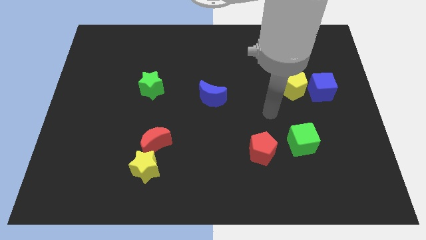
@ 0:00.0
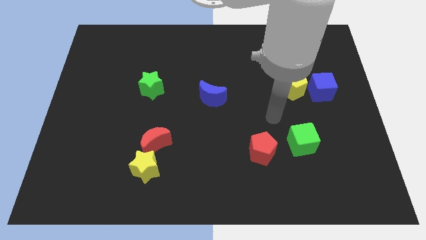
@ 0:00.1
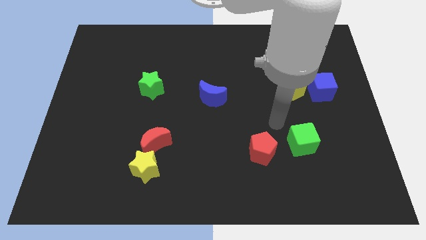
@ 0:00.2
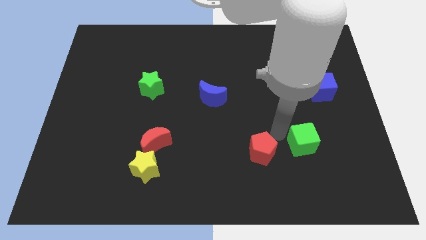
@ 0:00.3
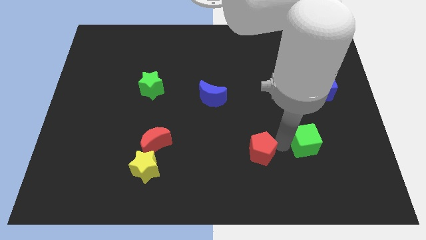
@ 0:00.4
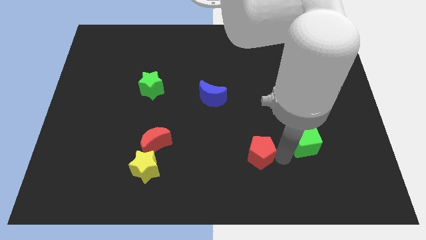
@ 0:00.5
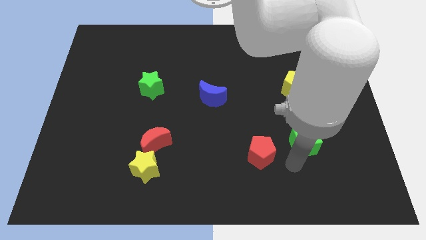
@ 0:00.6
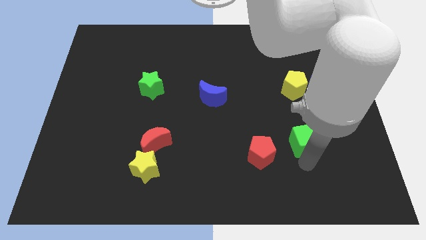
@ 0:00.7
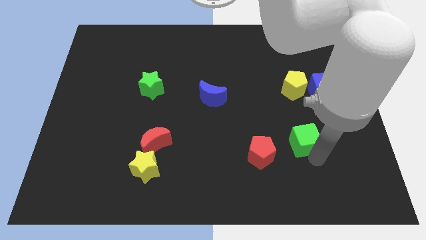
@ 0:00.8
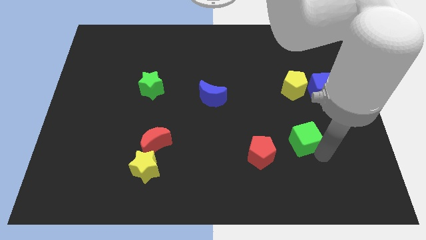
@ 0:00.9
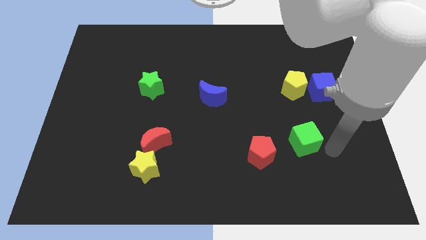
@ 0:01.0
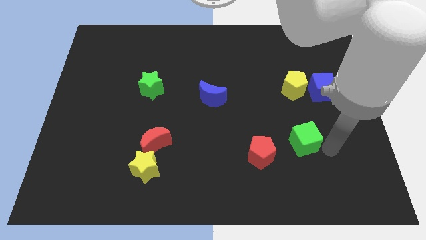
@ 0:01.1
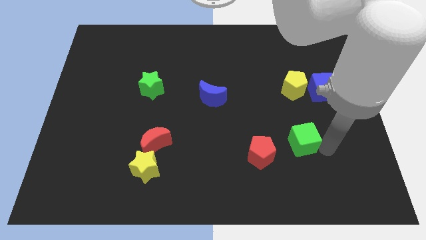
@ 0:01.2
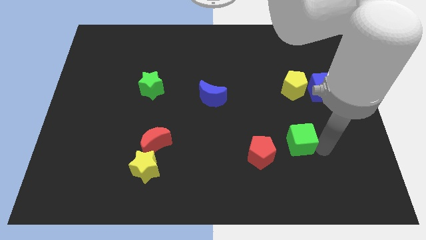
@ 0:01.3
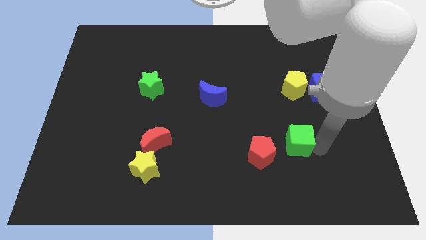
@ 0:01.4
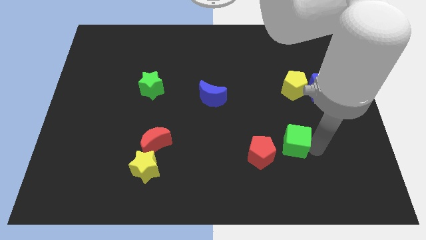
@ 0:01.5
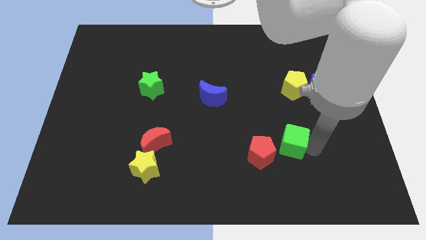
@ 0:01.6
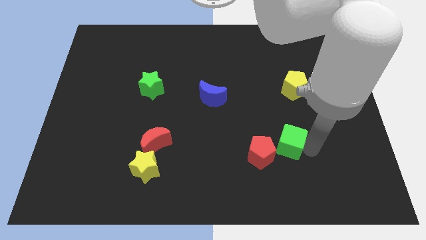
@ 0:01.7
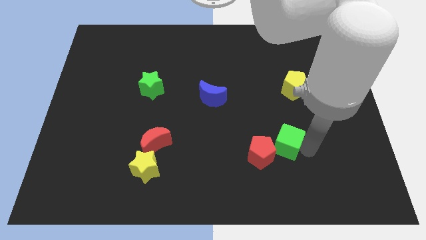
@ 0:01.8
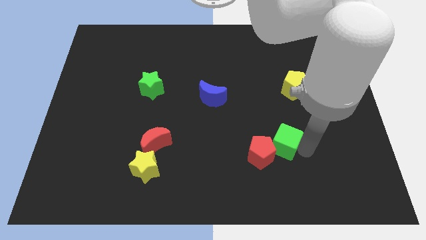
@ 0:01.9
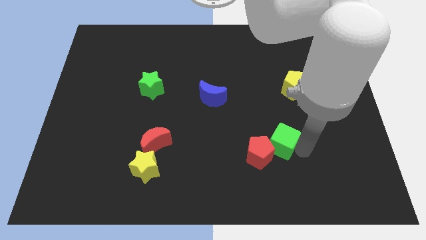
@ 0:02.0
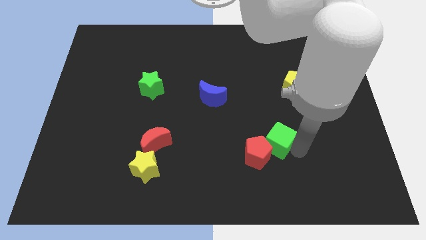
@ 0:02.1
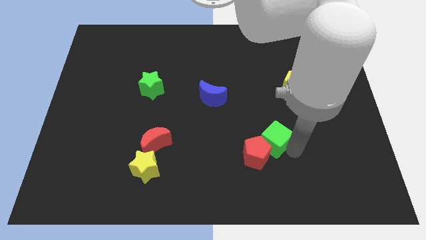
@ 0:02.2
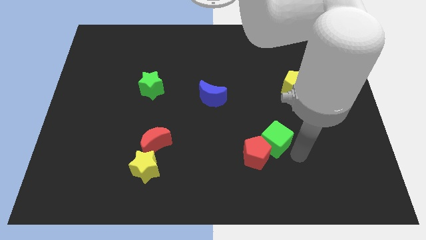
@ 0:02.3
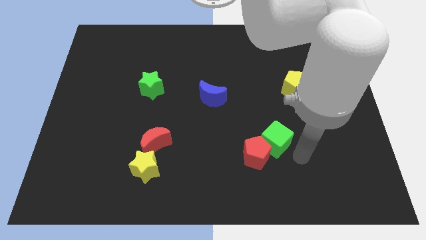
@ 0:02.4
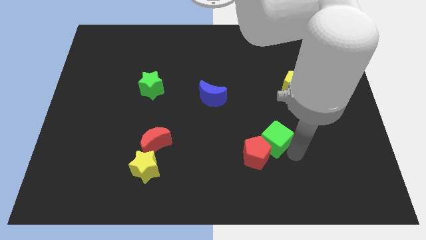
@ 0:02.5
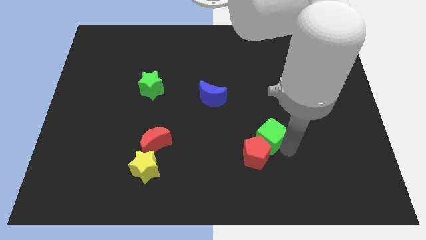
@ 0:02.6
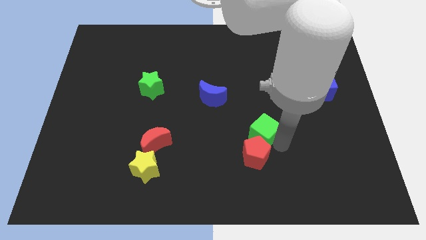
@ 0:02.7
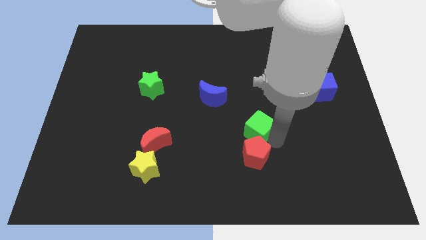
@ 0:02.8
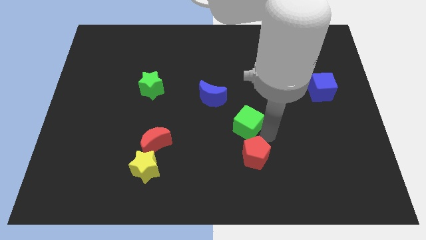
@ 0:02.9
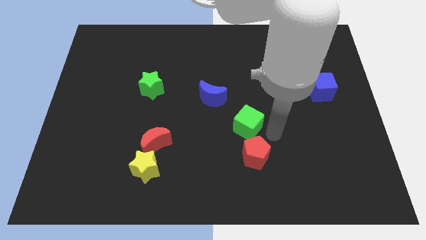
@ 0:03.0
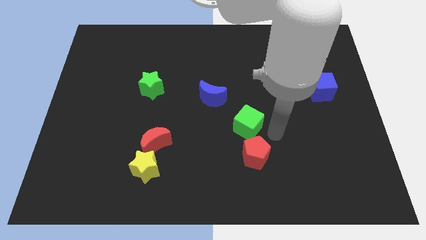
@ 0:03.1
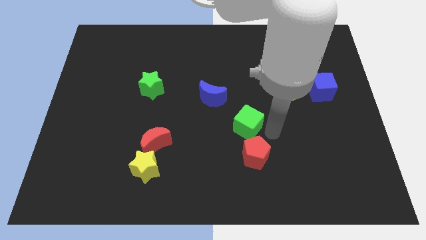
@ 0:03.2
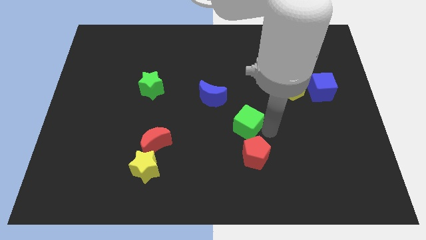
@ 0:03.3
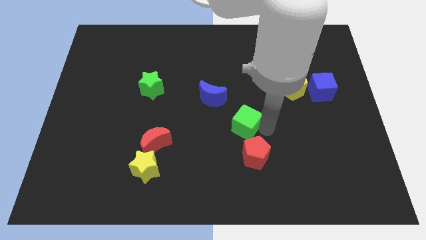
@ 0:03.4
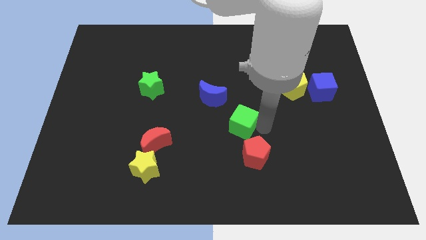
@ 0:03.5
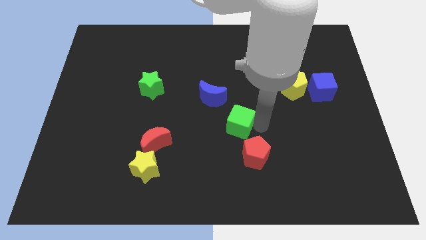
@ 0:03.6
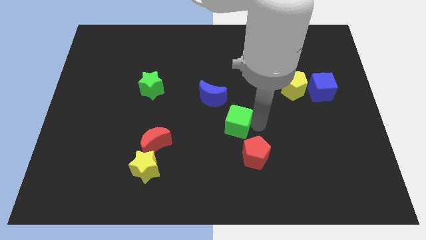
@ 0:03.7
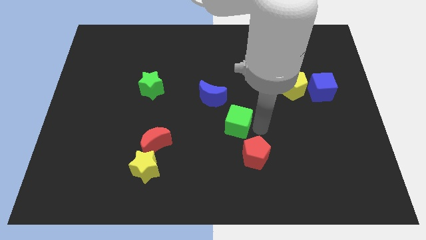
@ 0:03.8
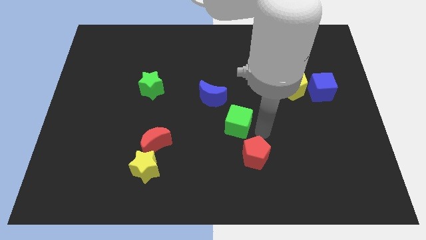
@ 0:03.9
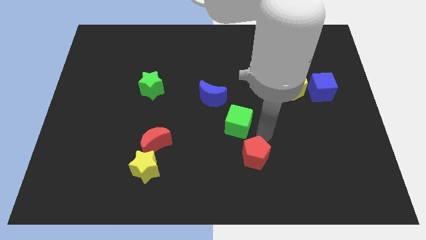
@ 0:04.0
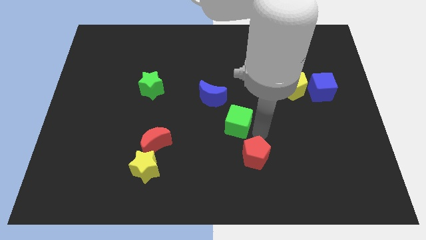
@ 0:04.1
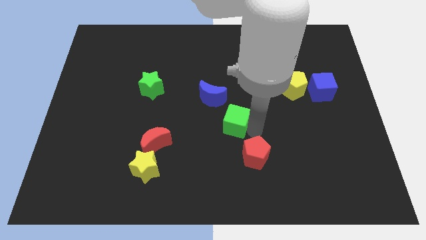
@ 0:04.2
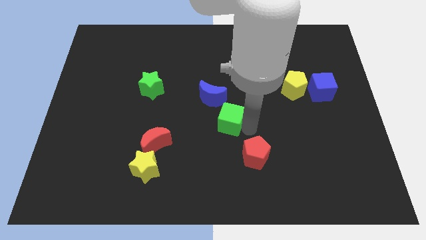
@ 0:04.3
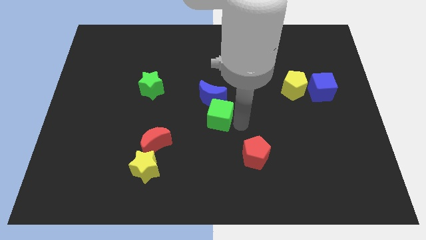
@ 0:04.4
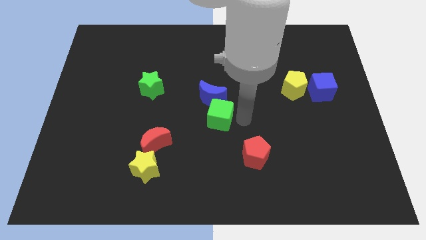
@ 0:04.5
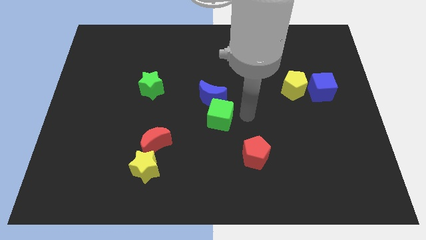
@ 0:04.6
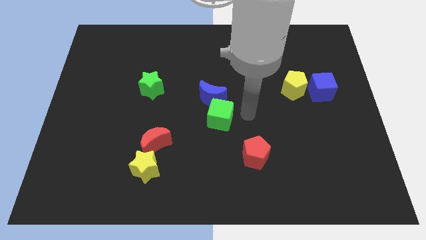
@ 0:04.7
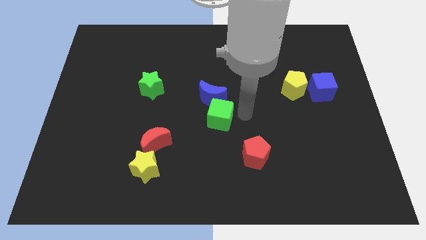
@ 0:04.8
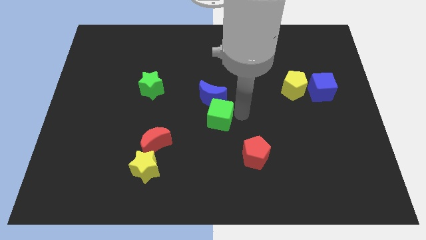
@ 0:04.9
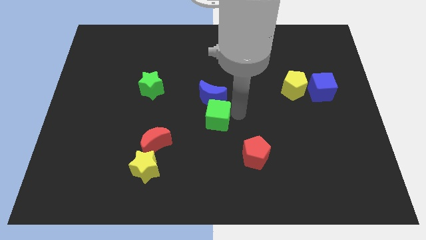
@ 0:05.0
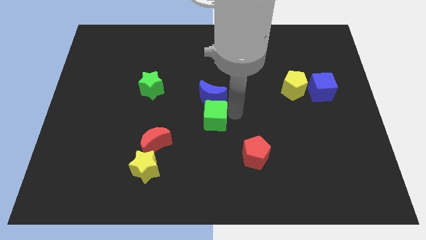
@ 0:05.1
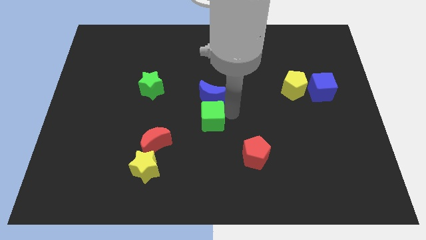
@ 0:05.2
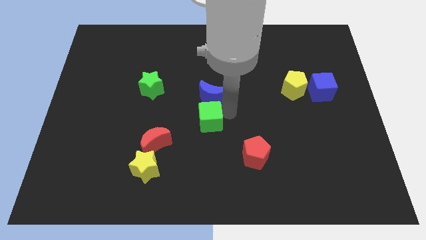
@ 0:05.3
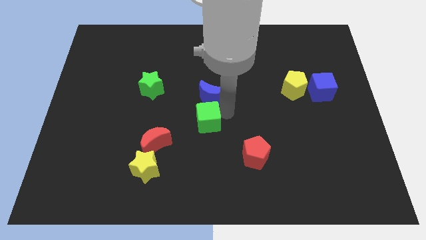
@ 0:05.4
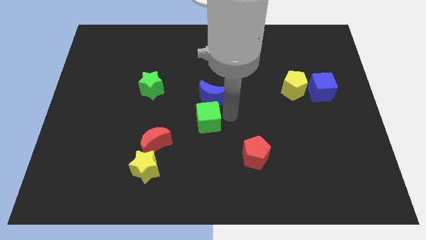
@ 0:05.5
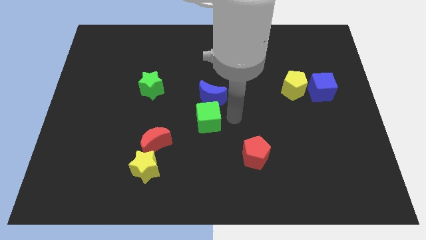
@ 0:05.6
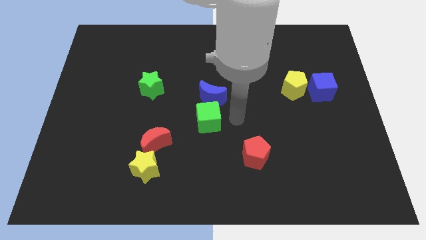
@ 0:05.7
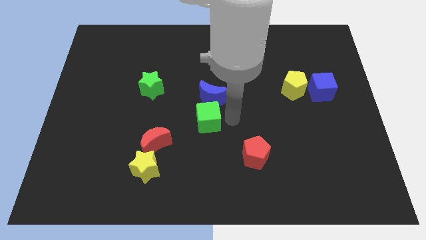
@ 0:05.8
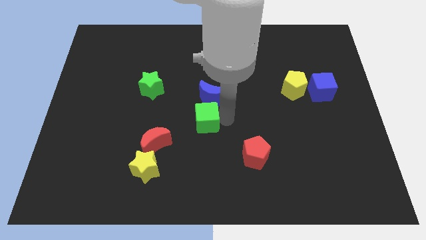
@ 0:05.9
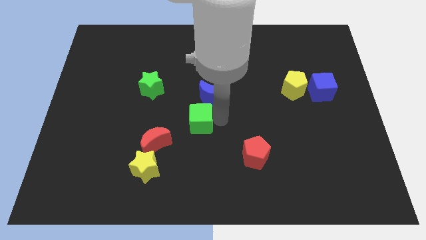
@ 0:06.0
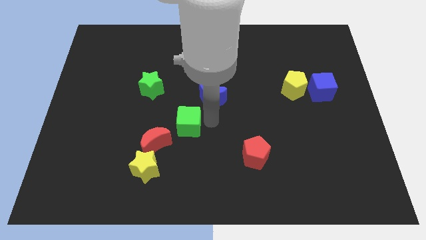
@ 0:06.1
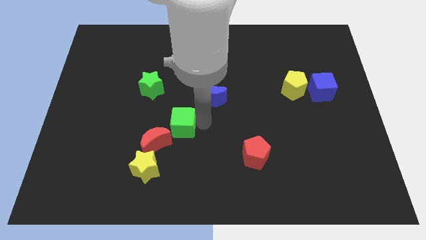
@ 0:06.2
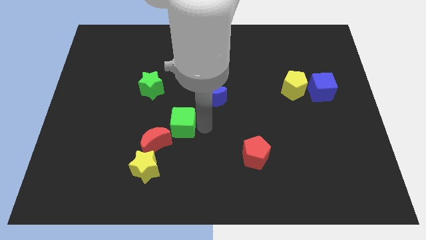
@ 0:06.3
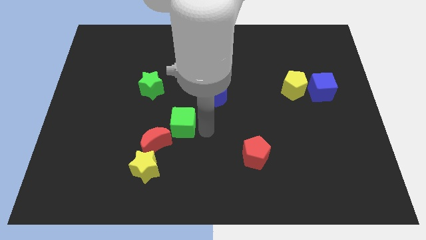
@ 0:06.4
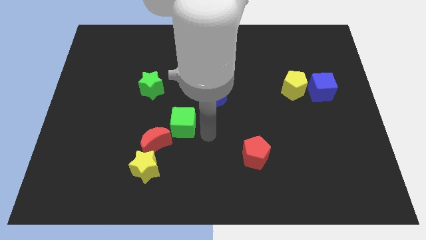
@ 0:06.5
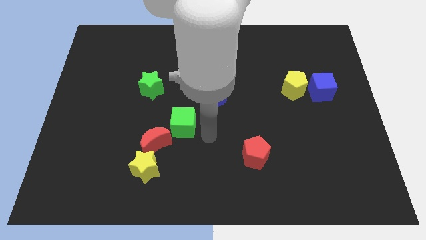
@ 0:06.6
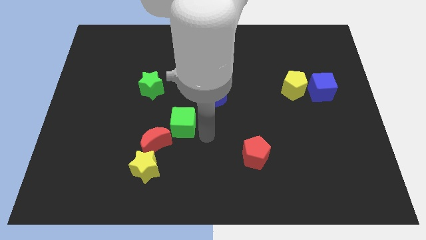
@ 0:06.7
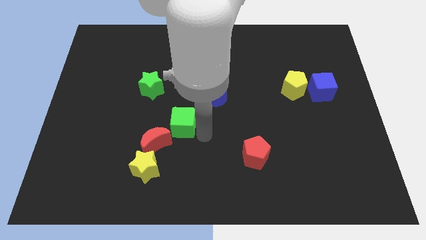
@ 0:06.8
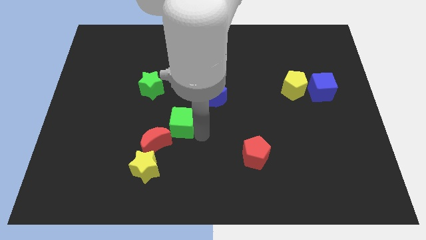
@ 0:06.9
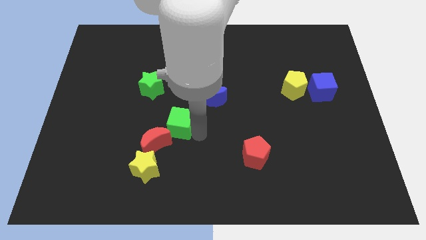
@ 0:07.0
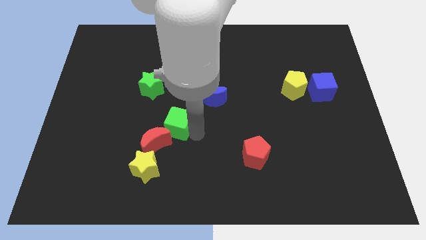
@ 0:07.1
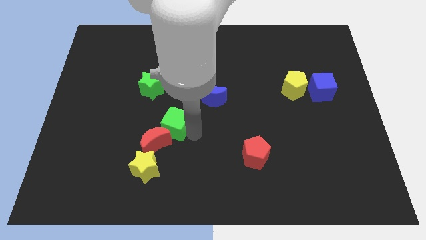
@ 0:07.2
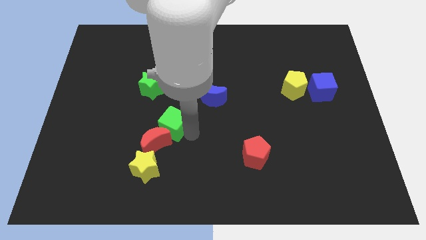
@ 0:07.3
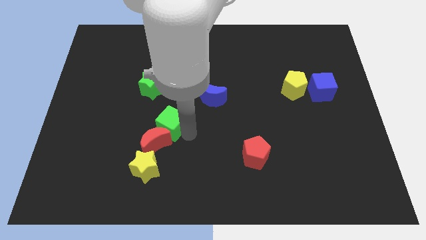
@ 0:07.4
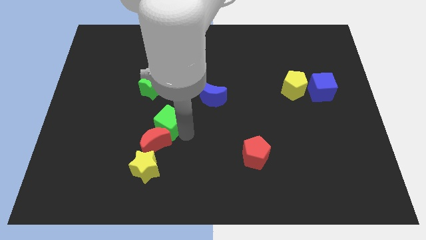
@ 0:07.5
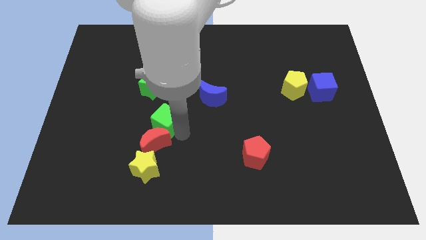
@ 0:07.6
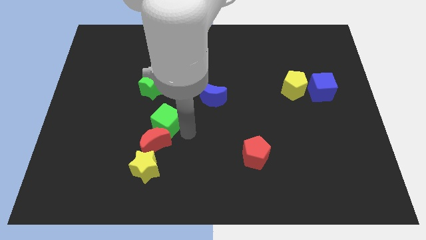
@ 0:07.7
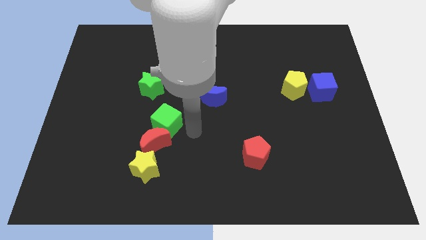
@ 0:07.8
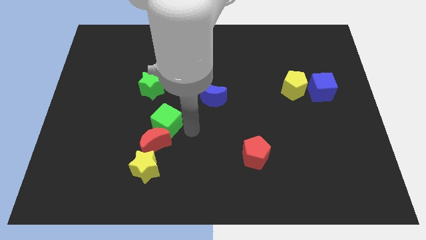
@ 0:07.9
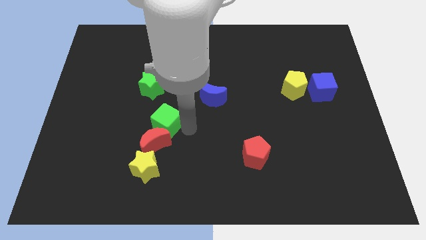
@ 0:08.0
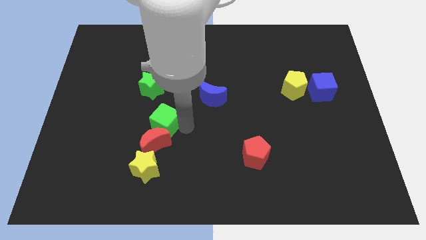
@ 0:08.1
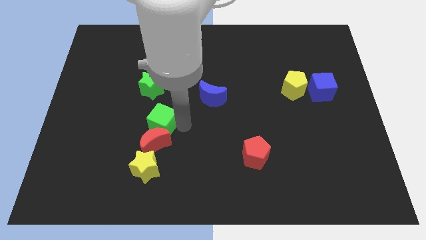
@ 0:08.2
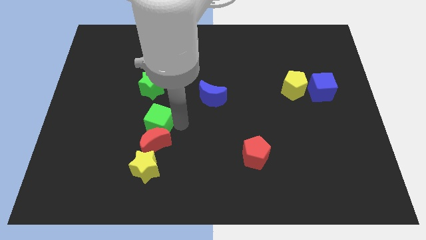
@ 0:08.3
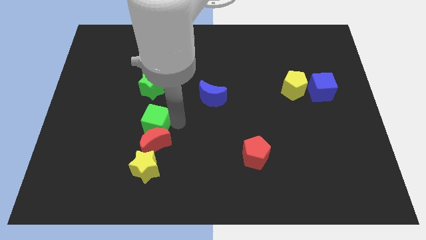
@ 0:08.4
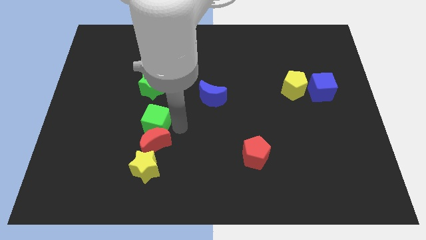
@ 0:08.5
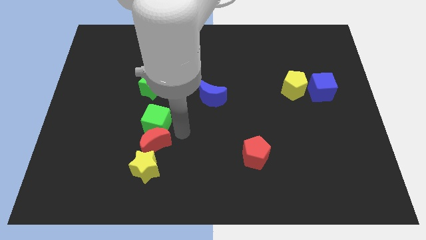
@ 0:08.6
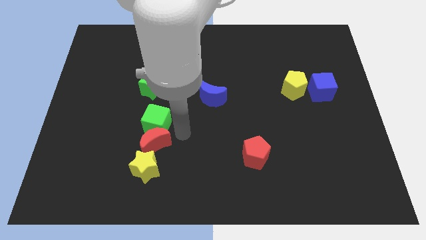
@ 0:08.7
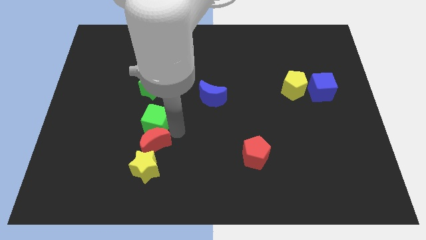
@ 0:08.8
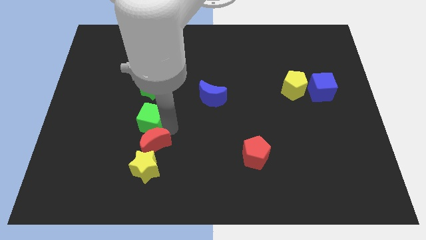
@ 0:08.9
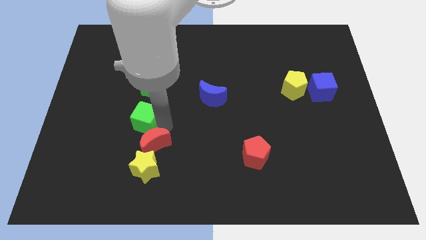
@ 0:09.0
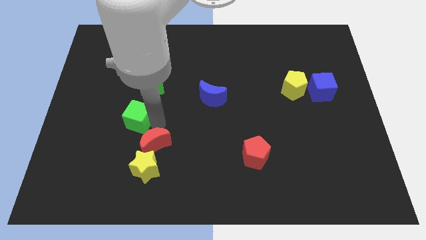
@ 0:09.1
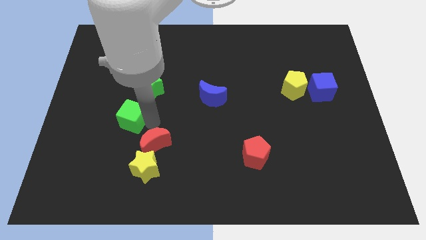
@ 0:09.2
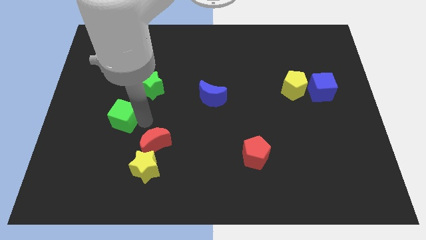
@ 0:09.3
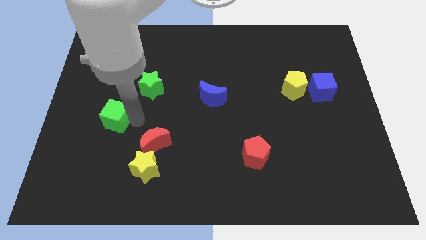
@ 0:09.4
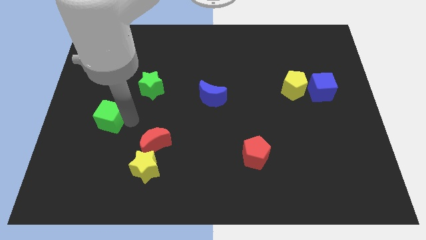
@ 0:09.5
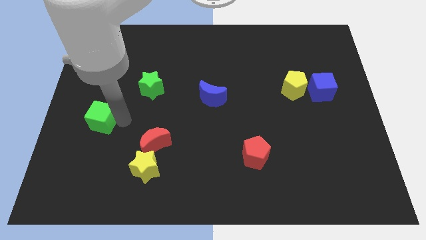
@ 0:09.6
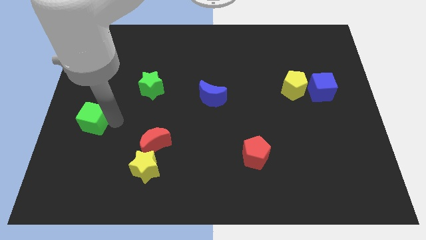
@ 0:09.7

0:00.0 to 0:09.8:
push the green cube to the left side of the board
